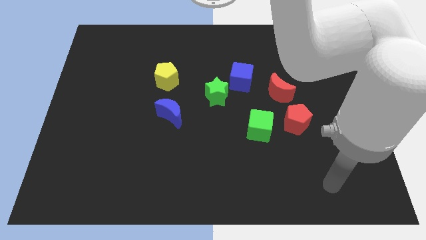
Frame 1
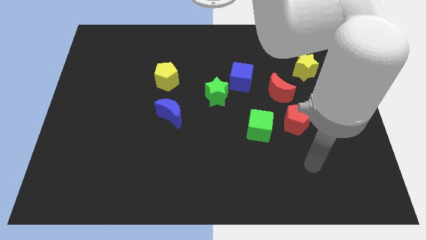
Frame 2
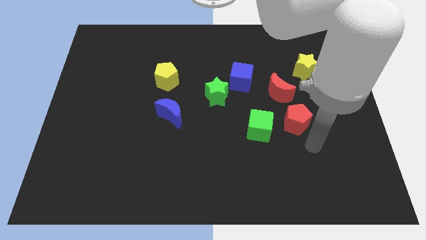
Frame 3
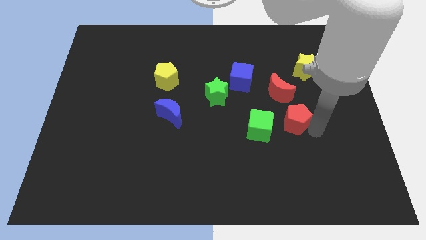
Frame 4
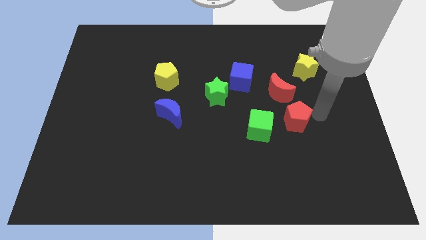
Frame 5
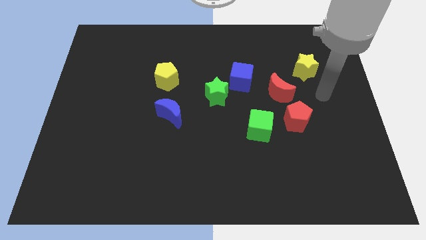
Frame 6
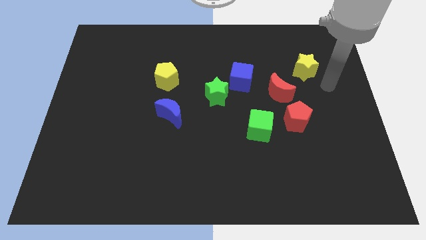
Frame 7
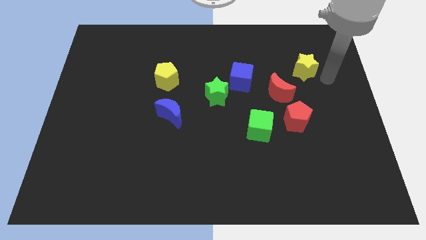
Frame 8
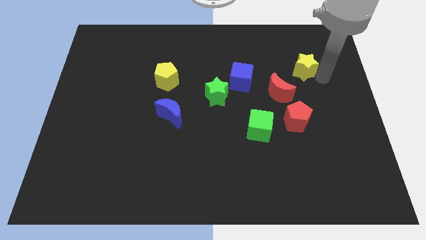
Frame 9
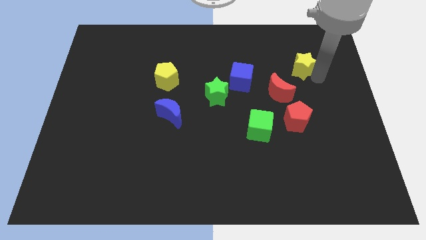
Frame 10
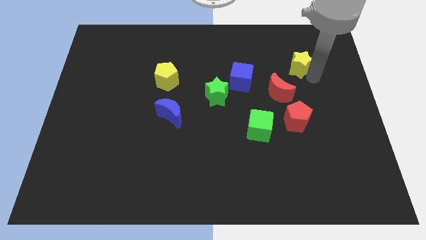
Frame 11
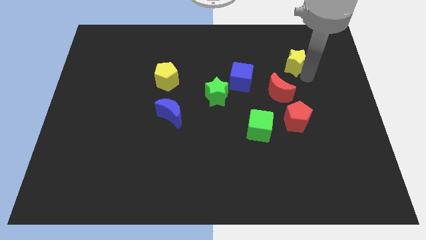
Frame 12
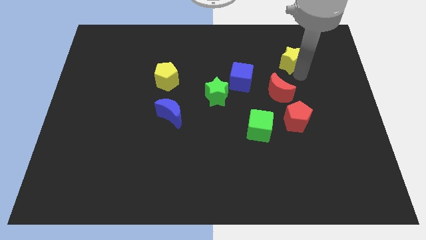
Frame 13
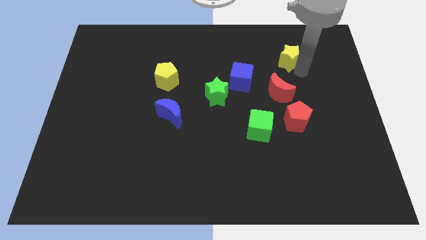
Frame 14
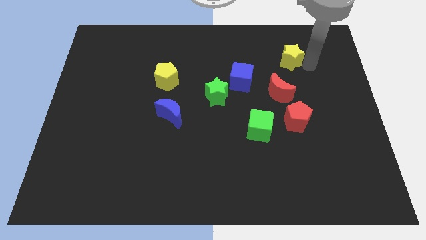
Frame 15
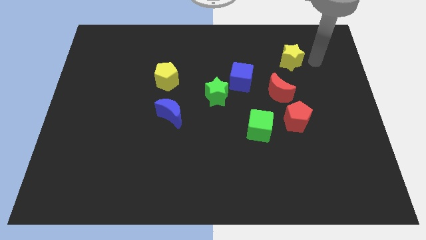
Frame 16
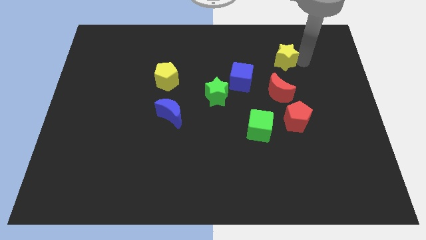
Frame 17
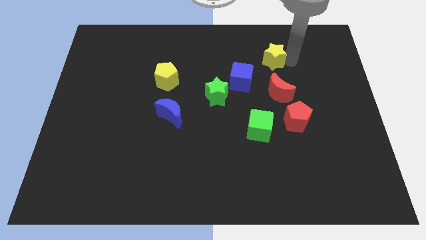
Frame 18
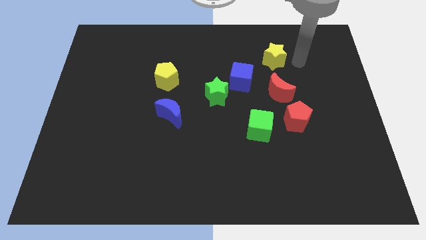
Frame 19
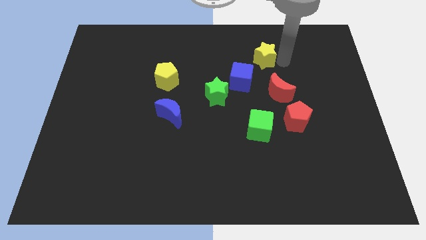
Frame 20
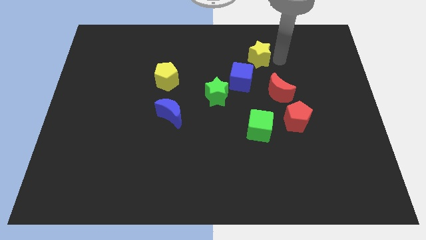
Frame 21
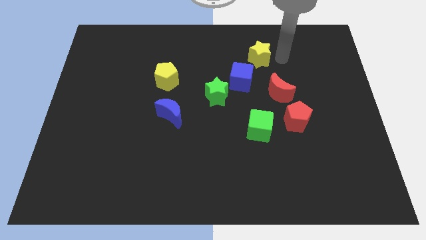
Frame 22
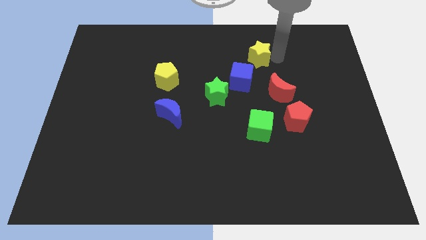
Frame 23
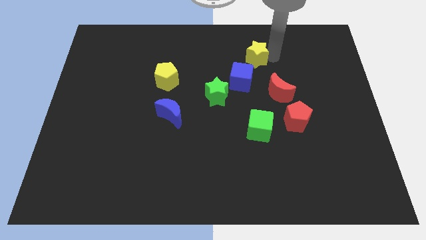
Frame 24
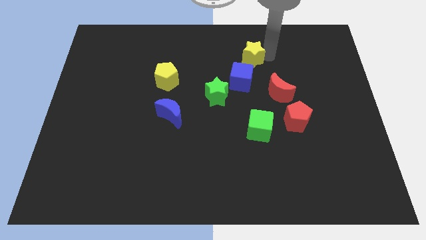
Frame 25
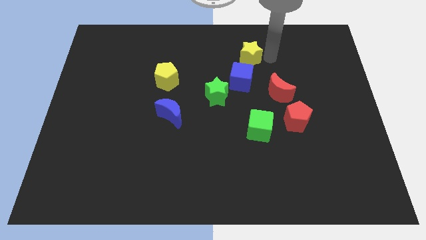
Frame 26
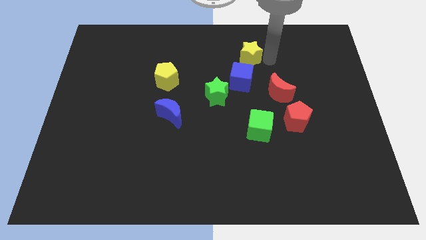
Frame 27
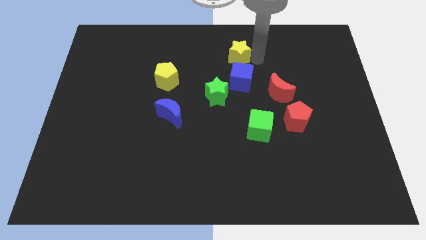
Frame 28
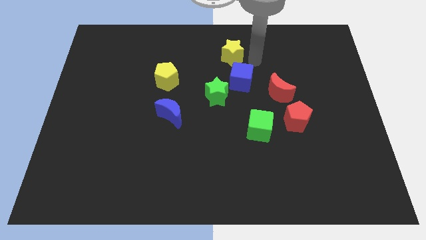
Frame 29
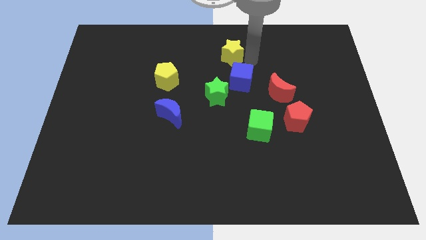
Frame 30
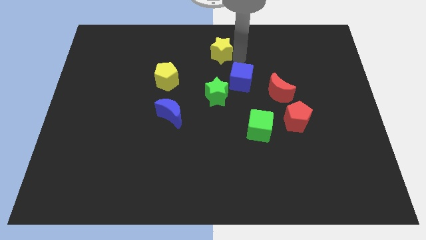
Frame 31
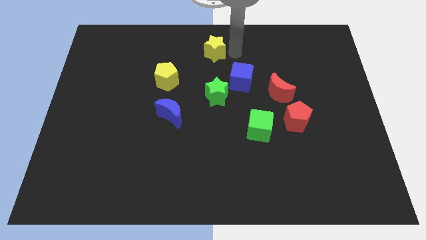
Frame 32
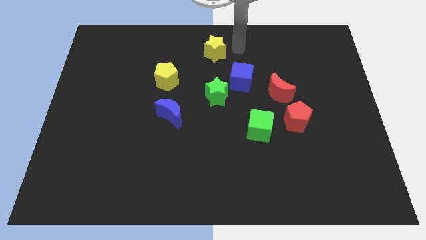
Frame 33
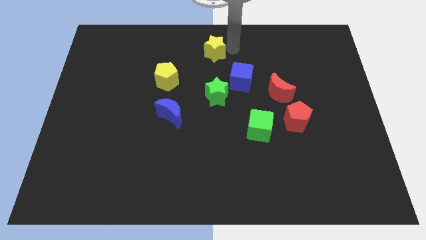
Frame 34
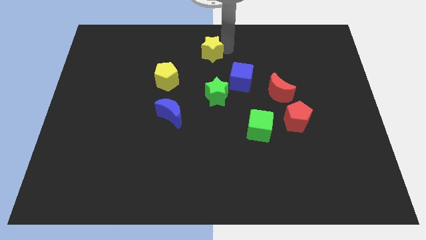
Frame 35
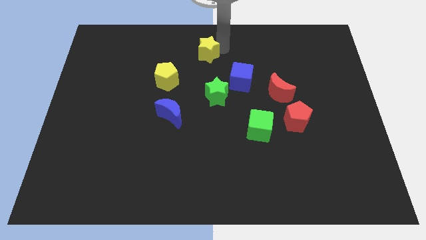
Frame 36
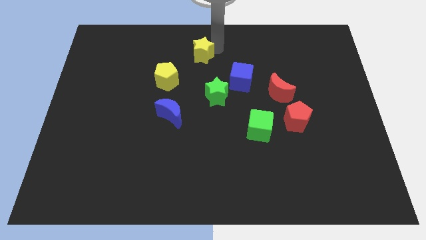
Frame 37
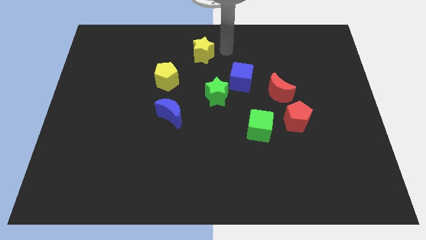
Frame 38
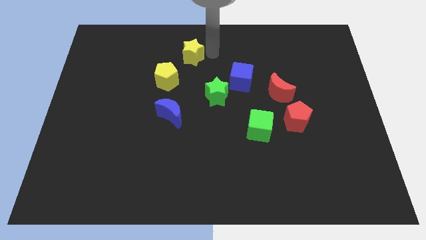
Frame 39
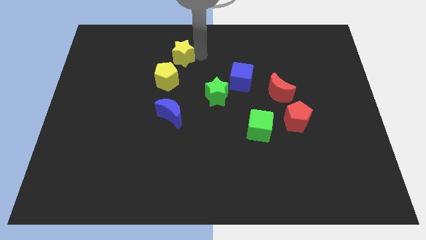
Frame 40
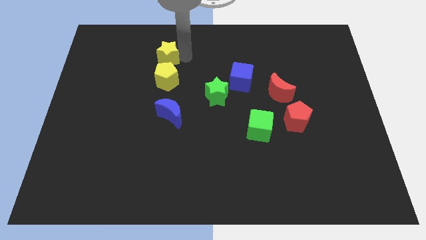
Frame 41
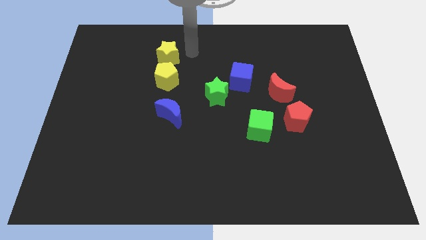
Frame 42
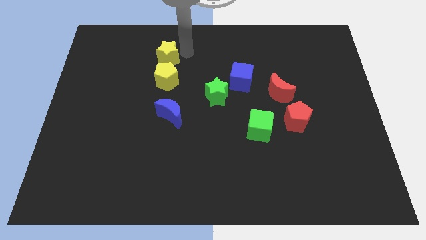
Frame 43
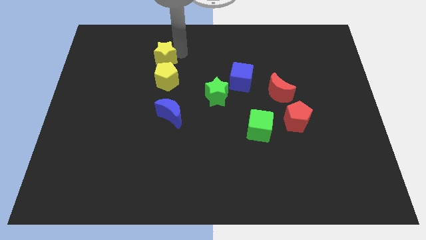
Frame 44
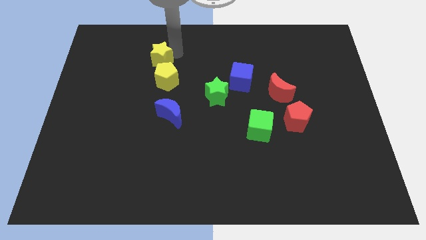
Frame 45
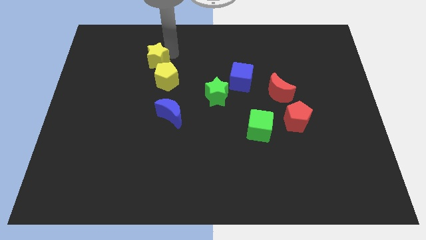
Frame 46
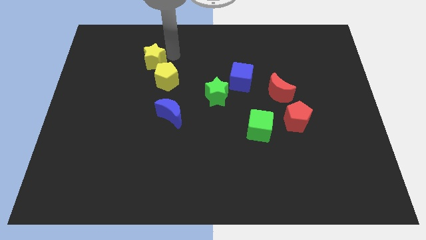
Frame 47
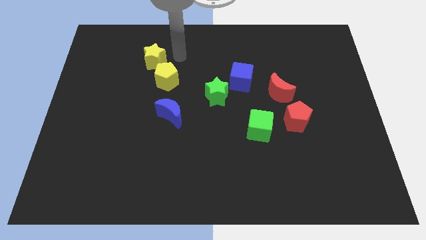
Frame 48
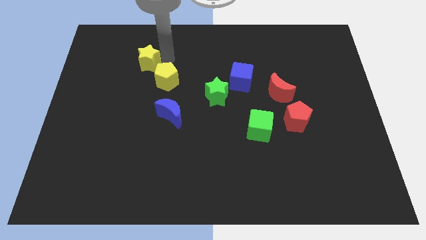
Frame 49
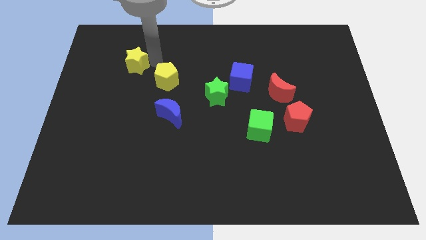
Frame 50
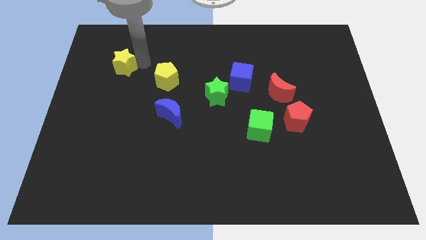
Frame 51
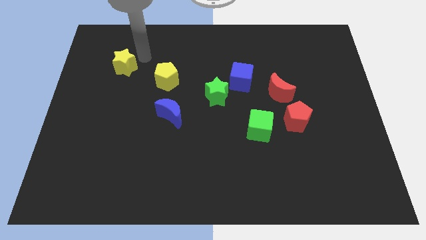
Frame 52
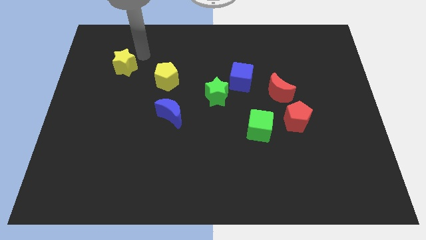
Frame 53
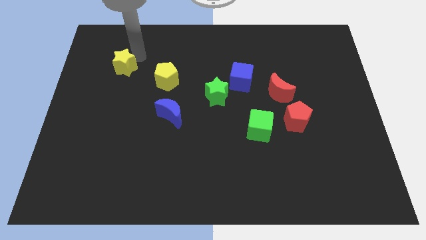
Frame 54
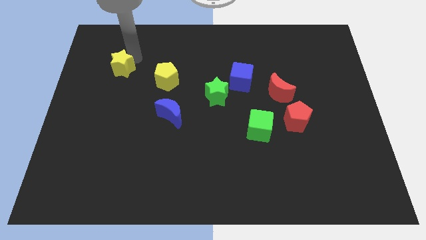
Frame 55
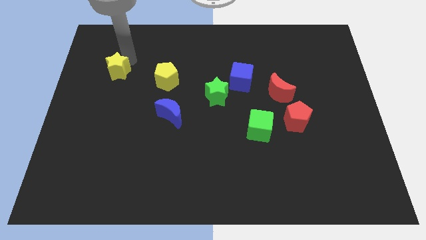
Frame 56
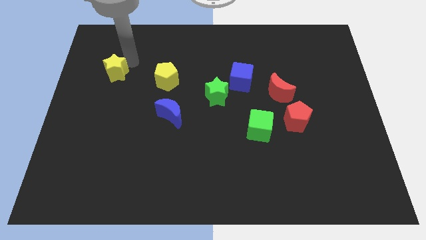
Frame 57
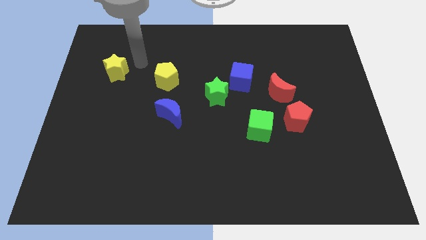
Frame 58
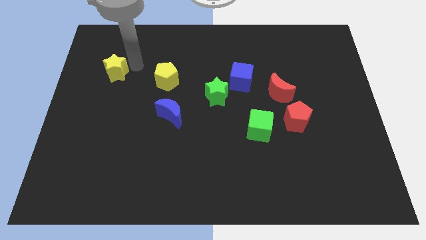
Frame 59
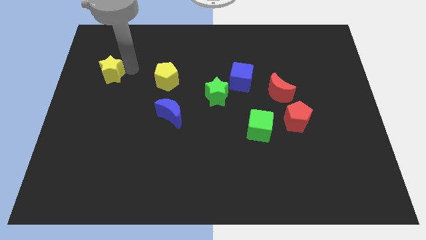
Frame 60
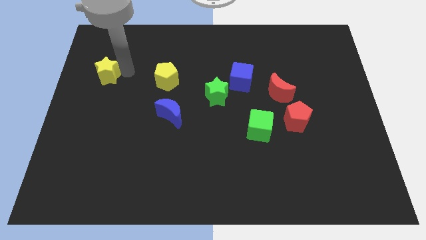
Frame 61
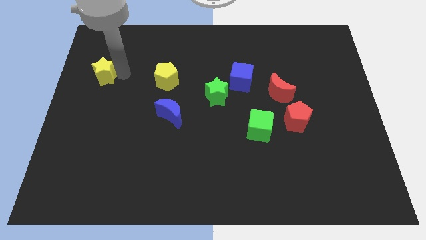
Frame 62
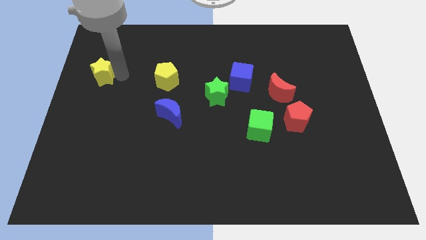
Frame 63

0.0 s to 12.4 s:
put the yellow star to the left side of the board
